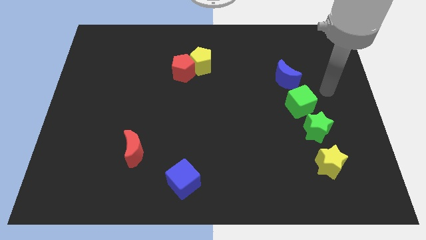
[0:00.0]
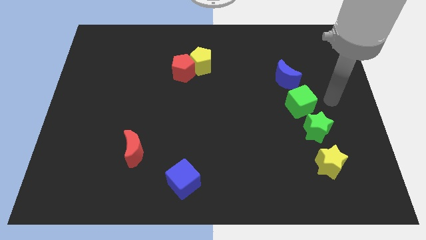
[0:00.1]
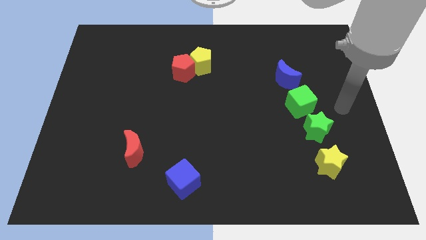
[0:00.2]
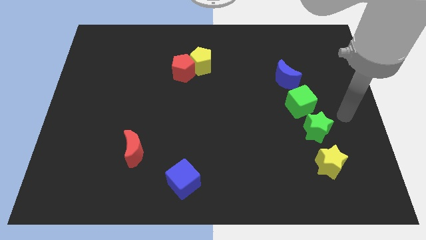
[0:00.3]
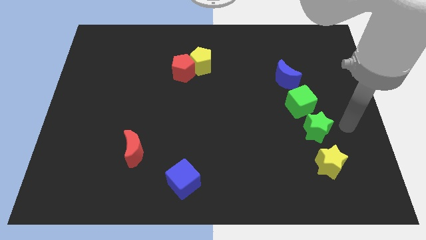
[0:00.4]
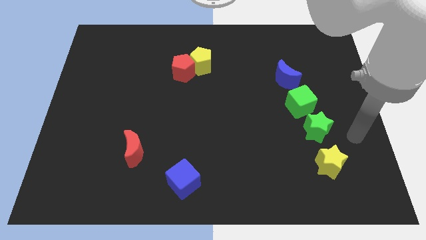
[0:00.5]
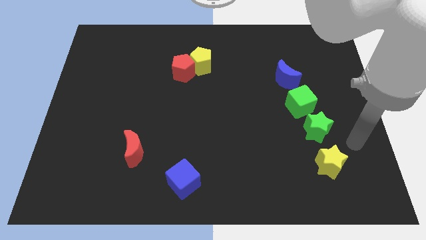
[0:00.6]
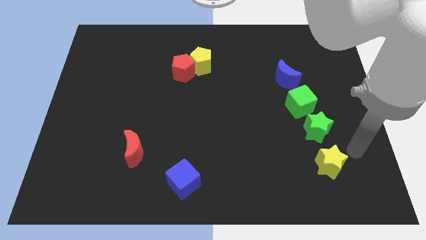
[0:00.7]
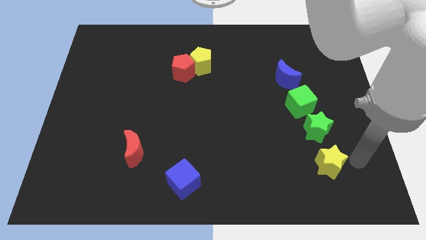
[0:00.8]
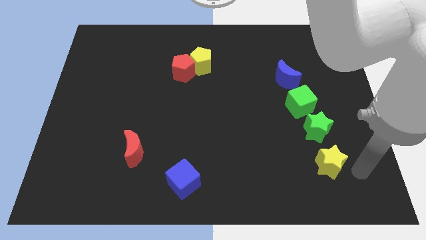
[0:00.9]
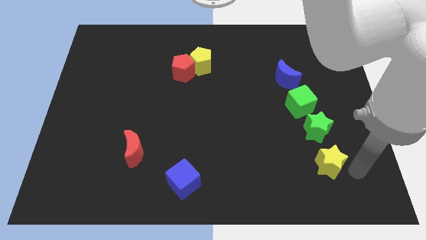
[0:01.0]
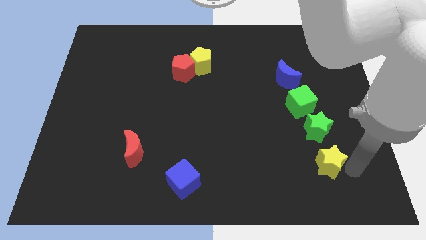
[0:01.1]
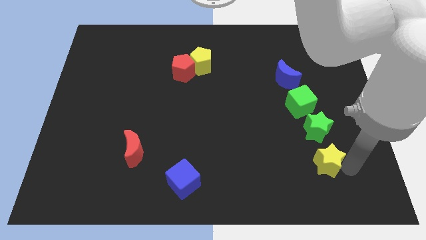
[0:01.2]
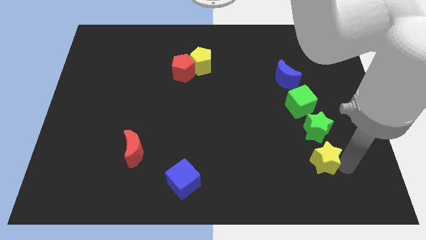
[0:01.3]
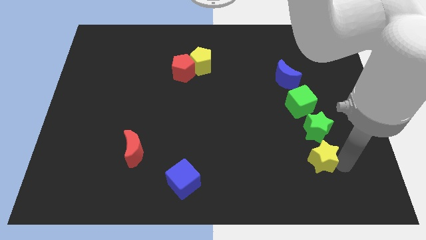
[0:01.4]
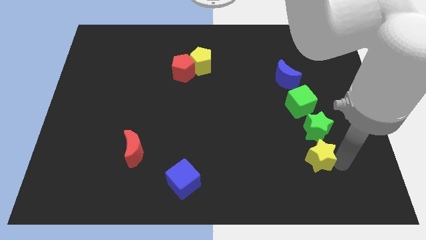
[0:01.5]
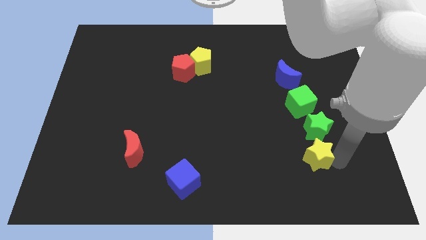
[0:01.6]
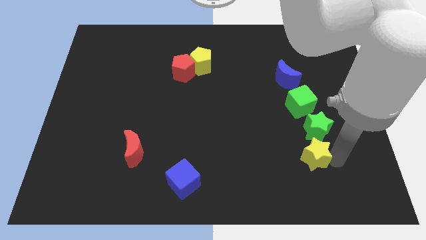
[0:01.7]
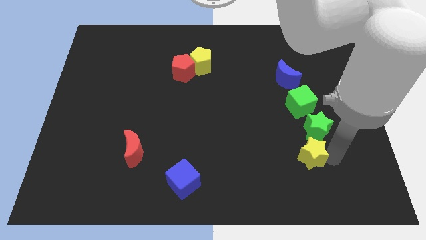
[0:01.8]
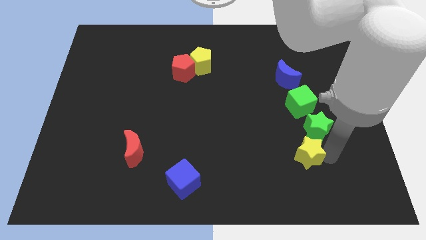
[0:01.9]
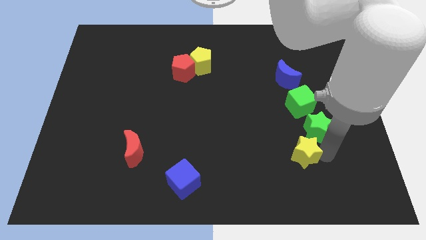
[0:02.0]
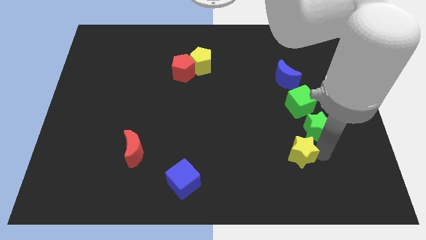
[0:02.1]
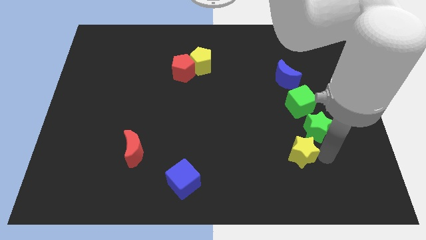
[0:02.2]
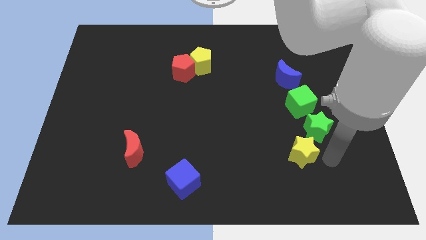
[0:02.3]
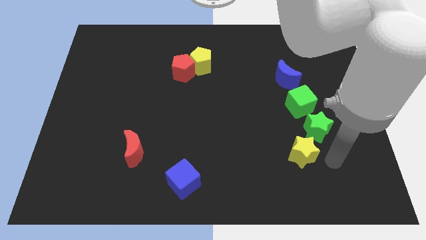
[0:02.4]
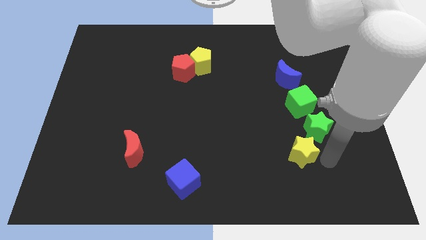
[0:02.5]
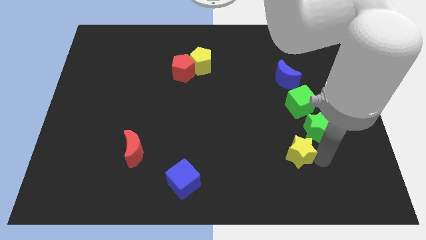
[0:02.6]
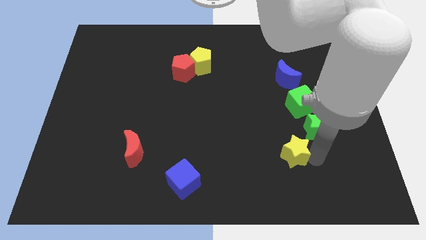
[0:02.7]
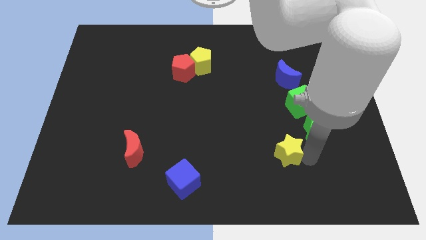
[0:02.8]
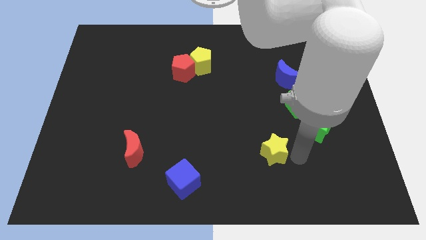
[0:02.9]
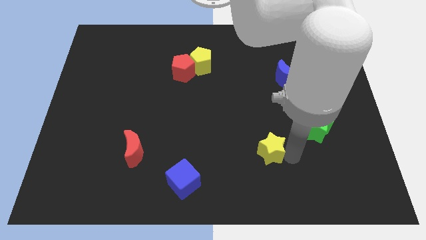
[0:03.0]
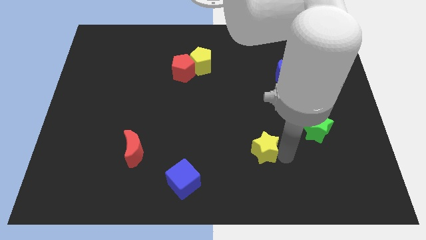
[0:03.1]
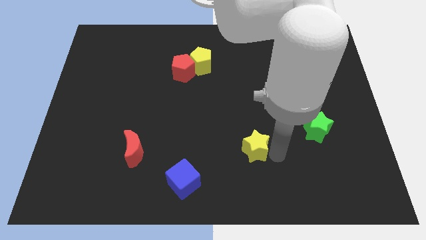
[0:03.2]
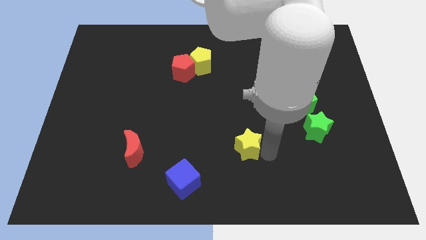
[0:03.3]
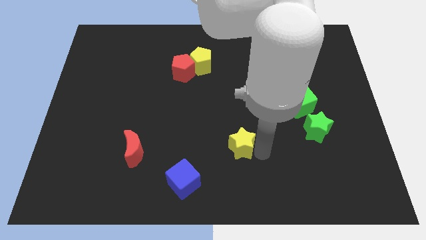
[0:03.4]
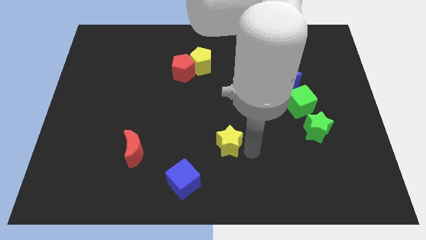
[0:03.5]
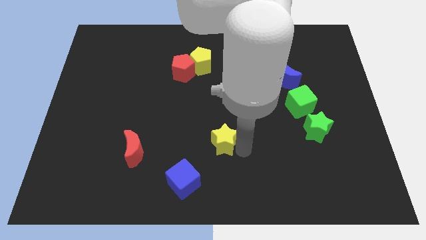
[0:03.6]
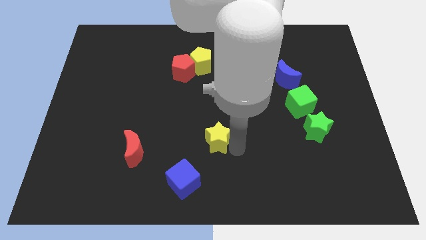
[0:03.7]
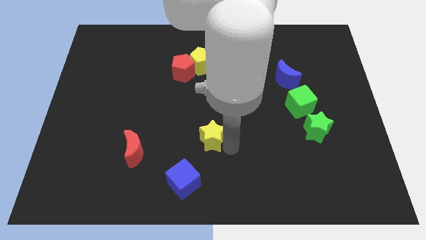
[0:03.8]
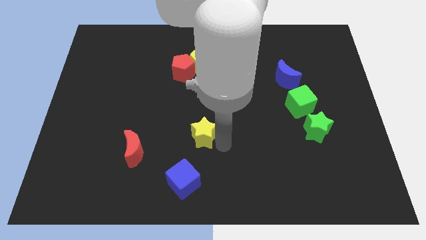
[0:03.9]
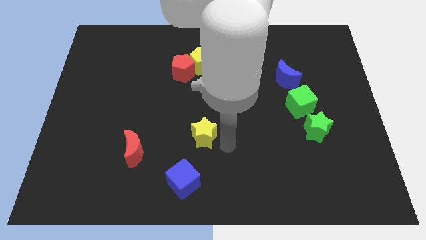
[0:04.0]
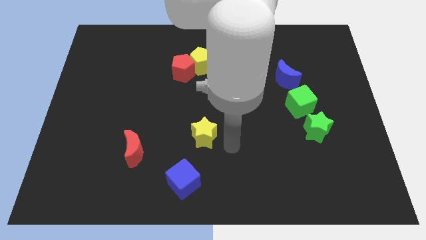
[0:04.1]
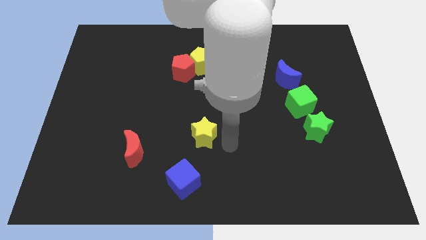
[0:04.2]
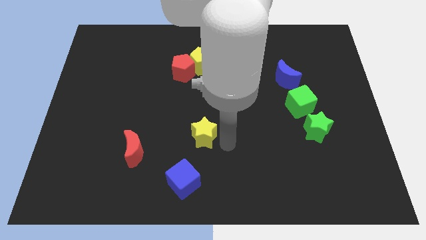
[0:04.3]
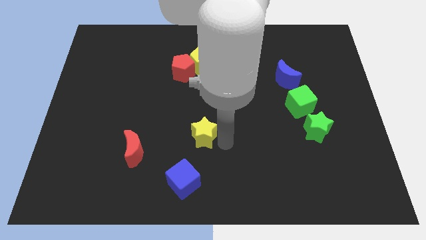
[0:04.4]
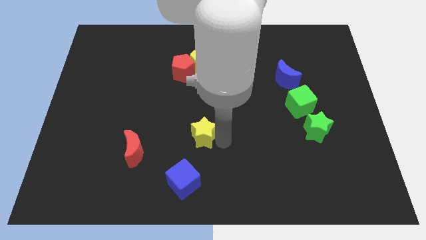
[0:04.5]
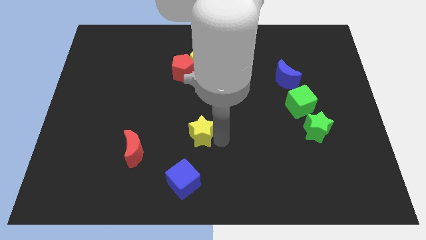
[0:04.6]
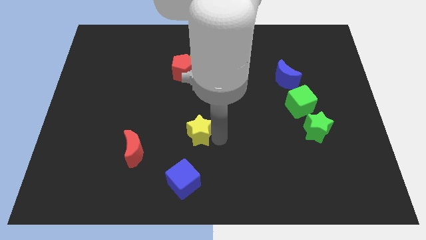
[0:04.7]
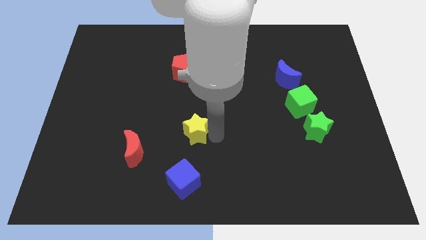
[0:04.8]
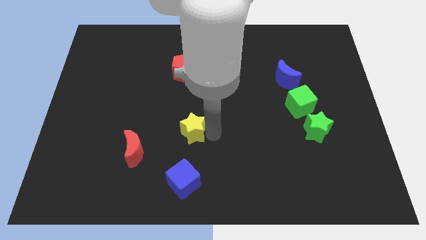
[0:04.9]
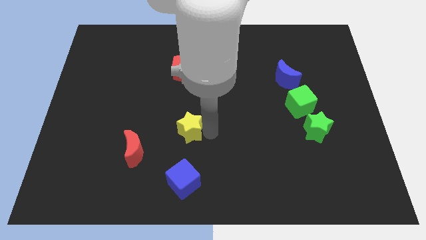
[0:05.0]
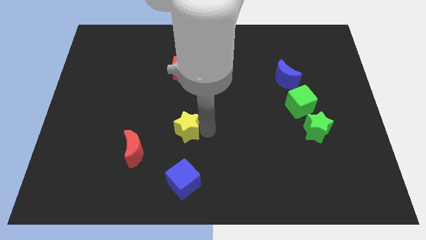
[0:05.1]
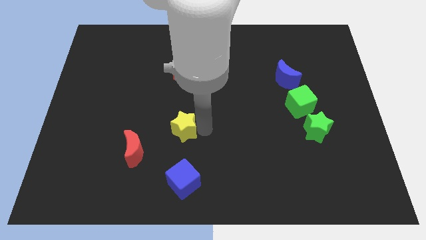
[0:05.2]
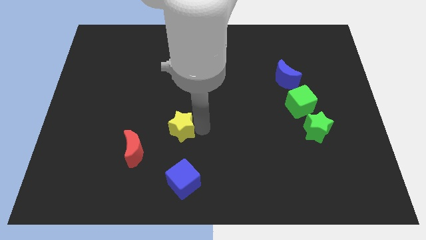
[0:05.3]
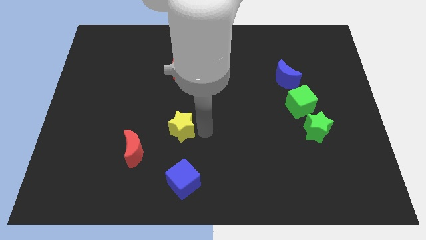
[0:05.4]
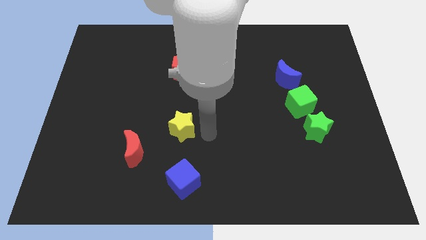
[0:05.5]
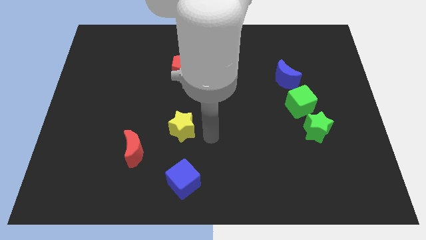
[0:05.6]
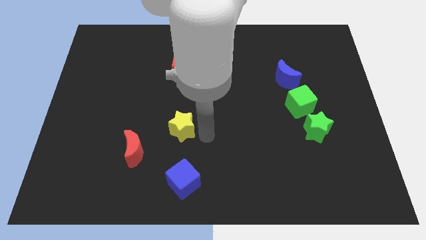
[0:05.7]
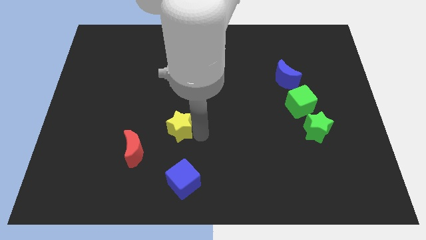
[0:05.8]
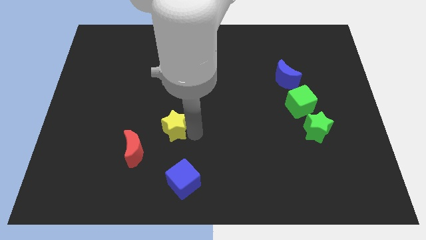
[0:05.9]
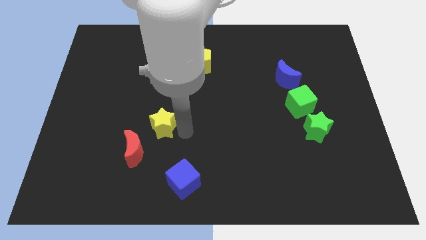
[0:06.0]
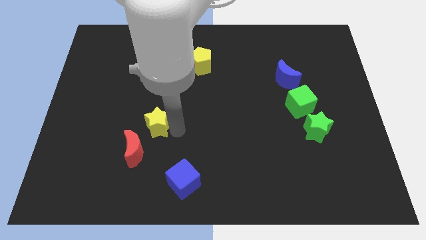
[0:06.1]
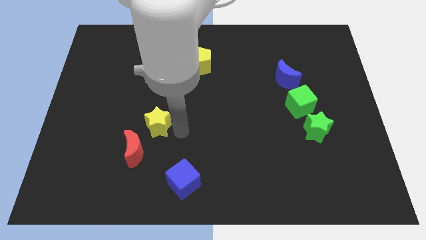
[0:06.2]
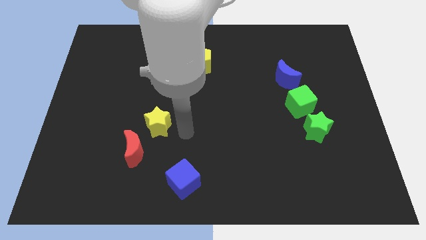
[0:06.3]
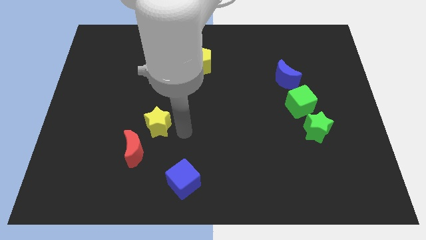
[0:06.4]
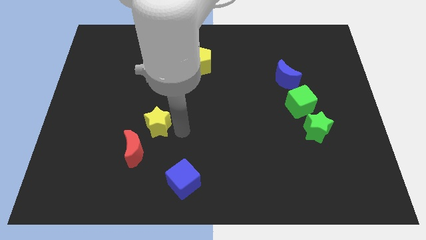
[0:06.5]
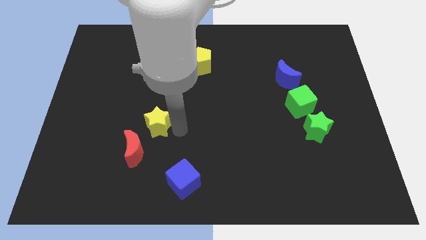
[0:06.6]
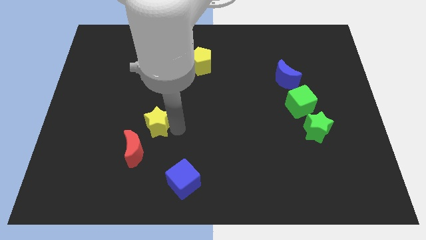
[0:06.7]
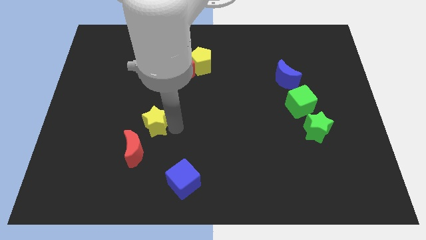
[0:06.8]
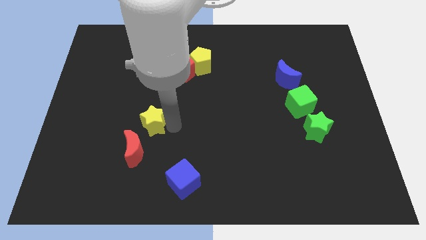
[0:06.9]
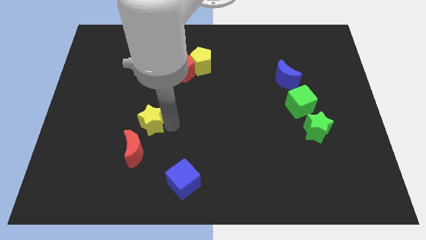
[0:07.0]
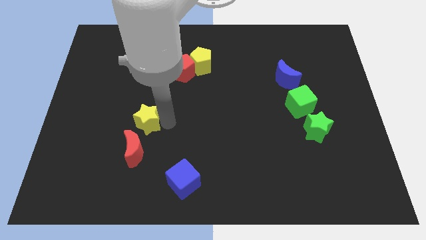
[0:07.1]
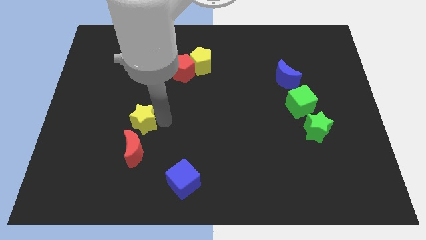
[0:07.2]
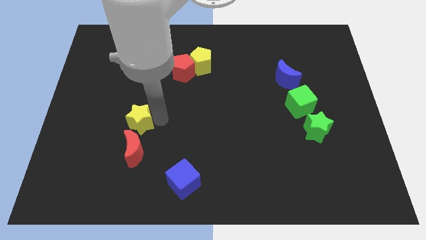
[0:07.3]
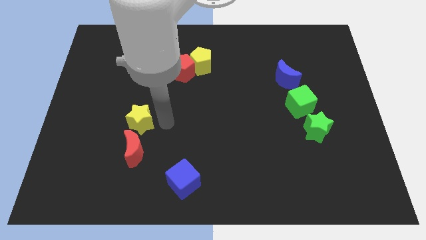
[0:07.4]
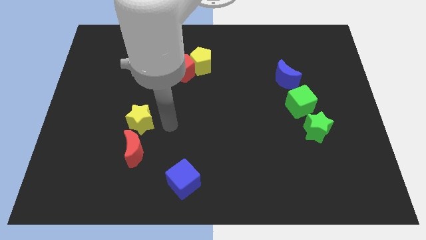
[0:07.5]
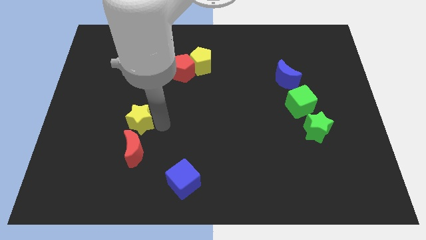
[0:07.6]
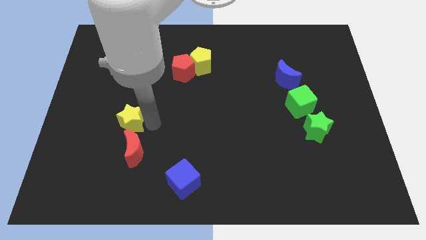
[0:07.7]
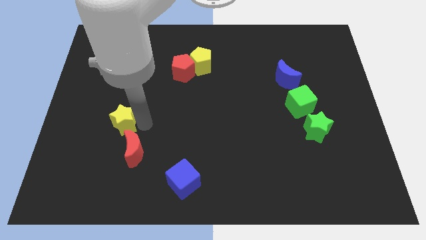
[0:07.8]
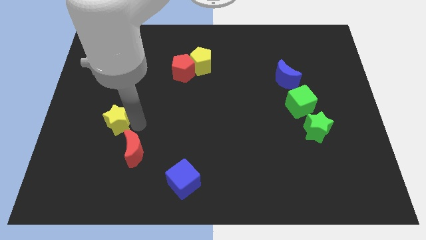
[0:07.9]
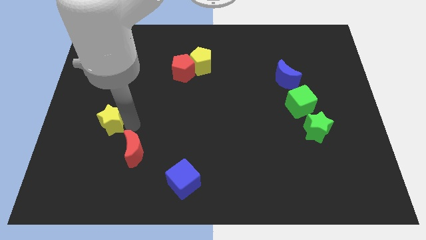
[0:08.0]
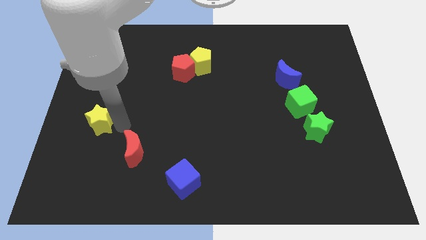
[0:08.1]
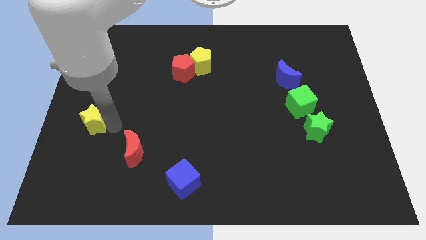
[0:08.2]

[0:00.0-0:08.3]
put the yellow star to the left side
